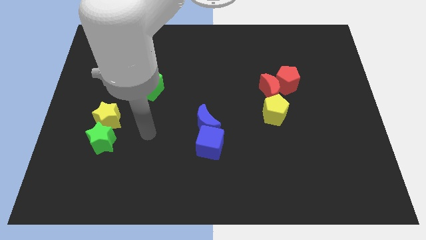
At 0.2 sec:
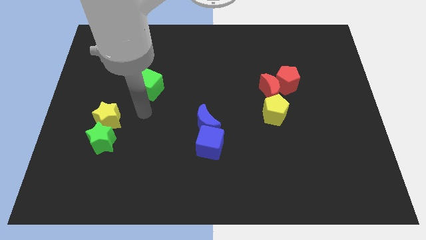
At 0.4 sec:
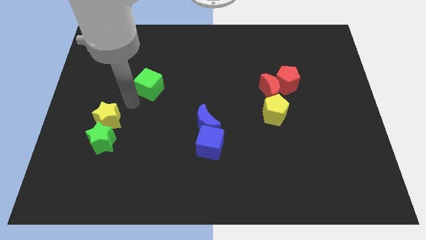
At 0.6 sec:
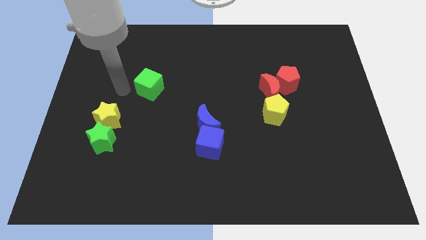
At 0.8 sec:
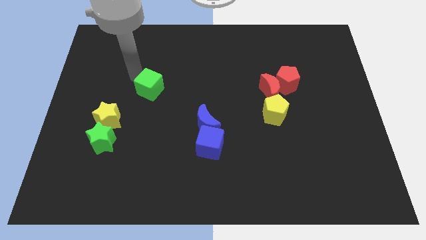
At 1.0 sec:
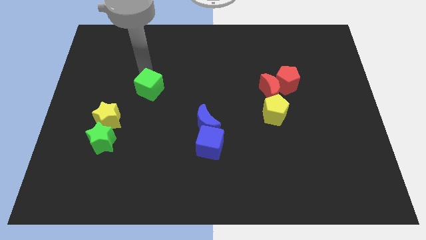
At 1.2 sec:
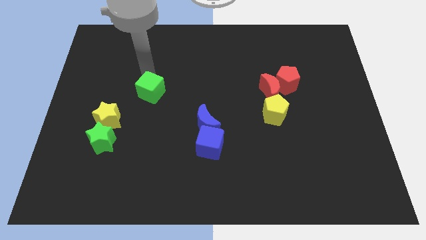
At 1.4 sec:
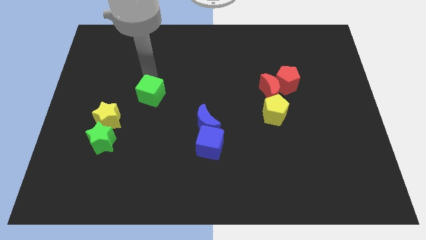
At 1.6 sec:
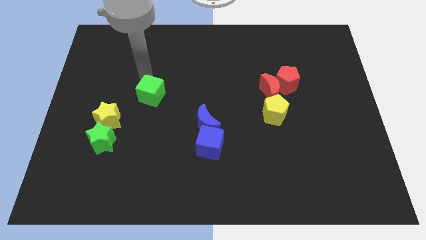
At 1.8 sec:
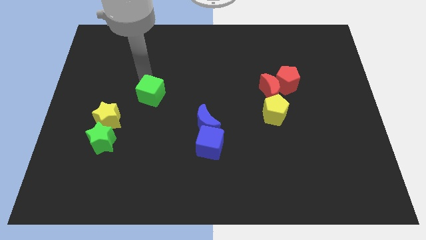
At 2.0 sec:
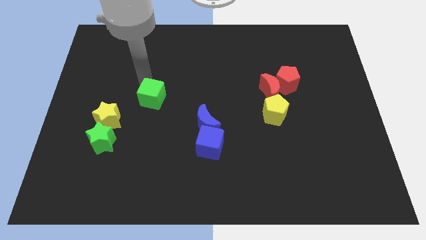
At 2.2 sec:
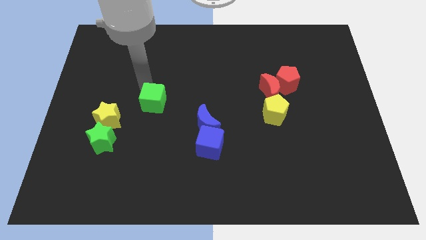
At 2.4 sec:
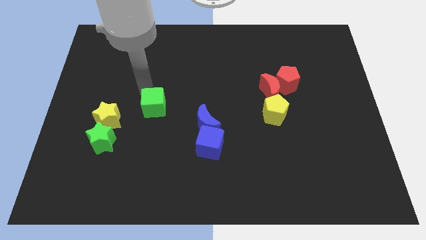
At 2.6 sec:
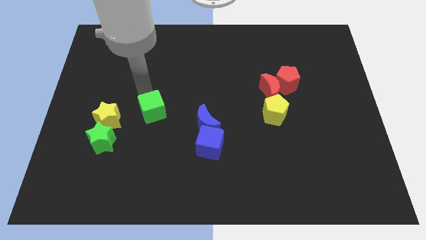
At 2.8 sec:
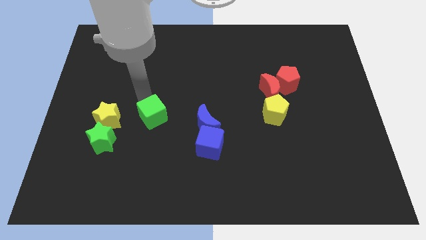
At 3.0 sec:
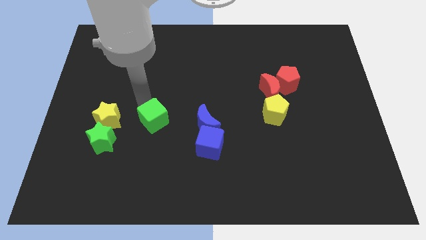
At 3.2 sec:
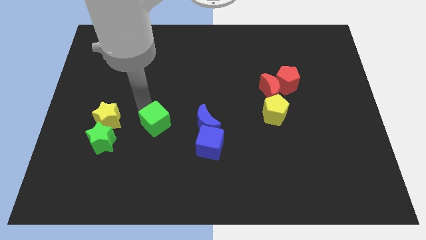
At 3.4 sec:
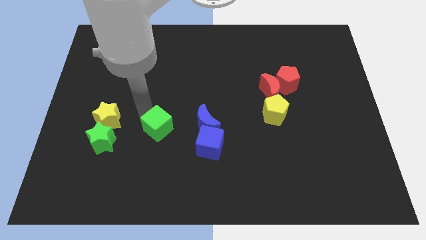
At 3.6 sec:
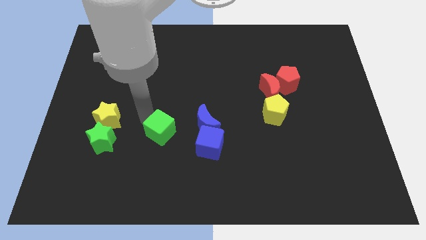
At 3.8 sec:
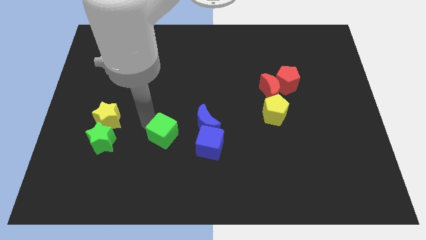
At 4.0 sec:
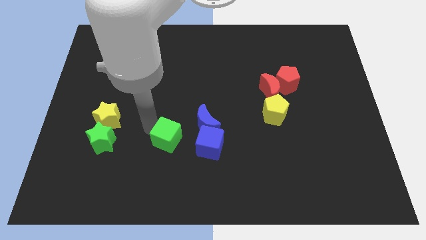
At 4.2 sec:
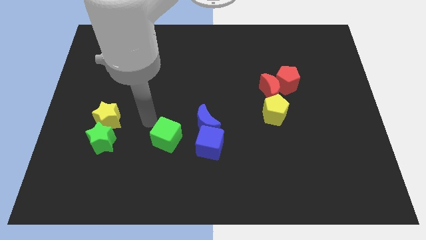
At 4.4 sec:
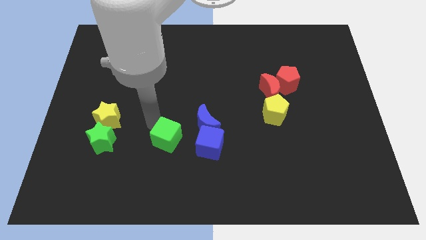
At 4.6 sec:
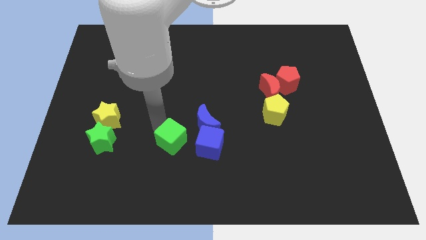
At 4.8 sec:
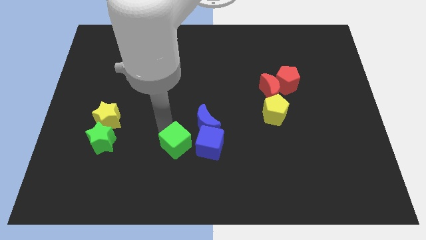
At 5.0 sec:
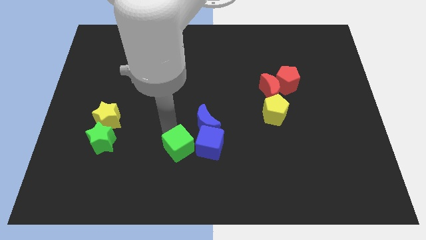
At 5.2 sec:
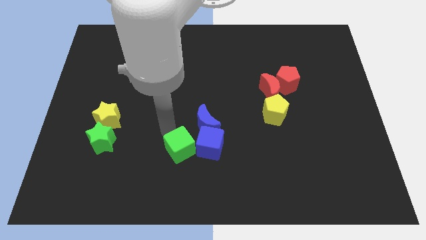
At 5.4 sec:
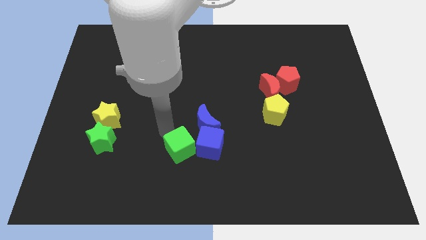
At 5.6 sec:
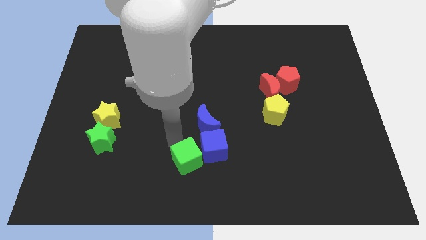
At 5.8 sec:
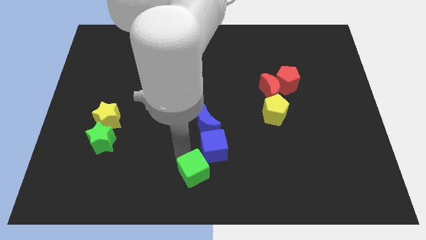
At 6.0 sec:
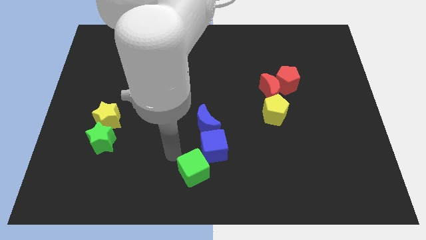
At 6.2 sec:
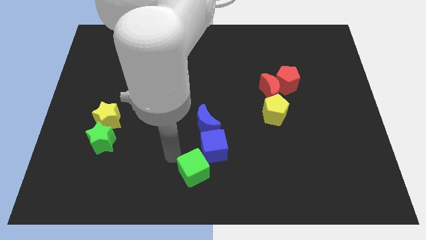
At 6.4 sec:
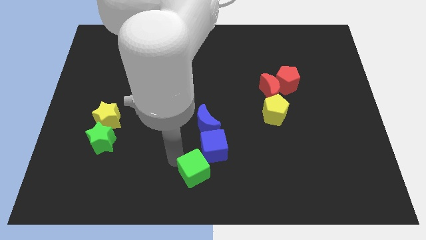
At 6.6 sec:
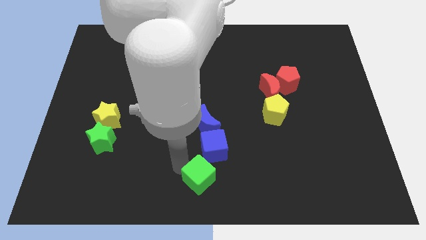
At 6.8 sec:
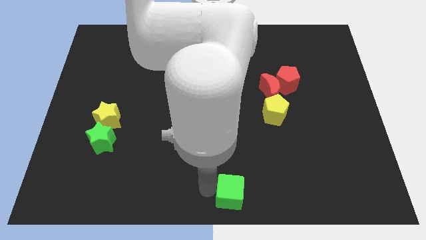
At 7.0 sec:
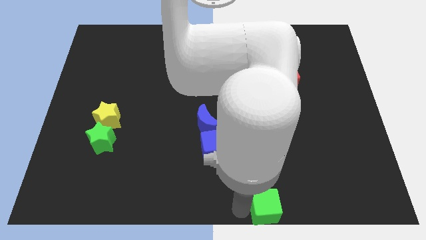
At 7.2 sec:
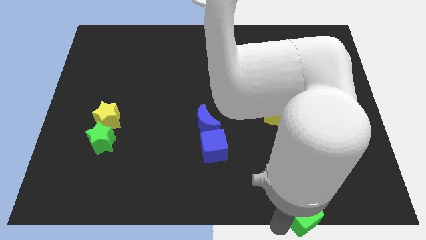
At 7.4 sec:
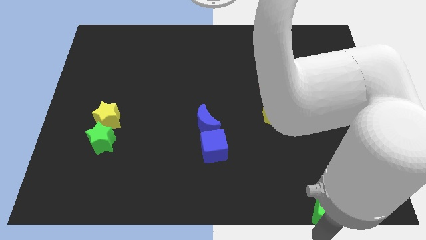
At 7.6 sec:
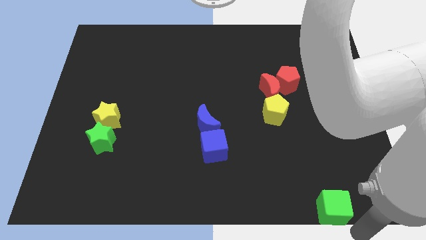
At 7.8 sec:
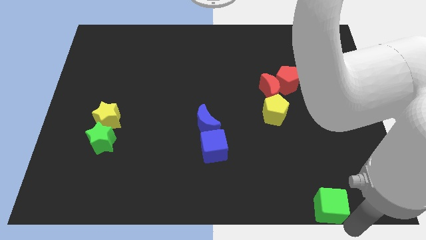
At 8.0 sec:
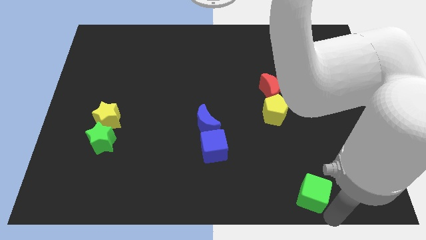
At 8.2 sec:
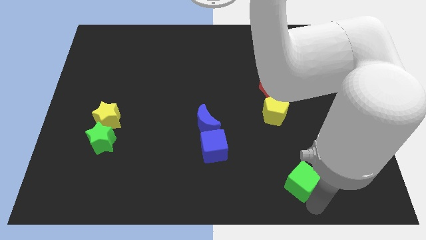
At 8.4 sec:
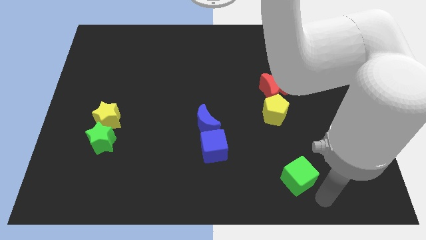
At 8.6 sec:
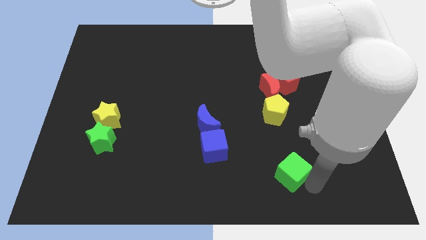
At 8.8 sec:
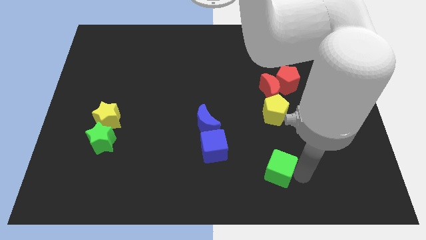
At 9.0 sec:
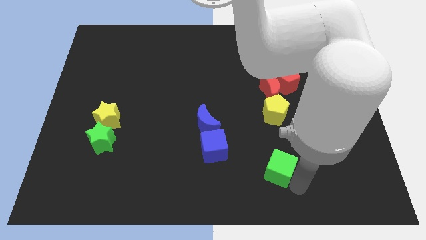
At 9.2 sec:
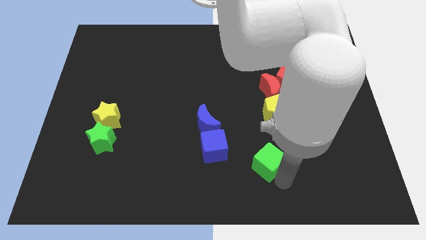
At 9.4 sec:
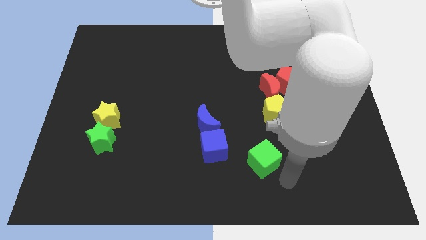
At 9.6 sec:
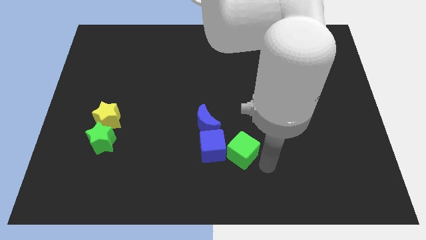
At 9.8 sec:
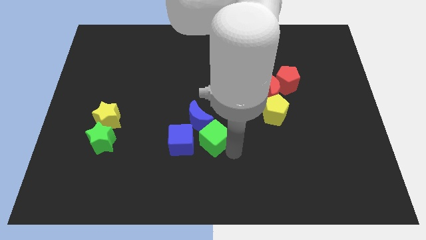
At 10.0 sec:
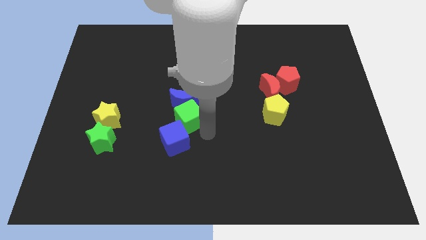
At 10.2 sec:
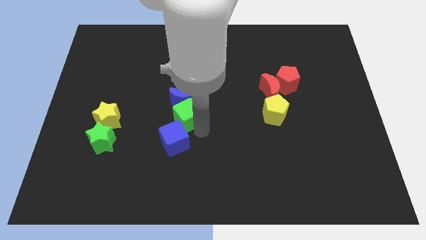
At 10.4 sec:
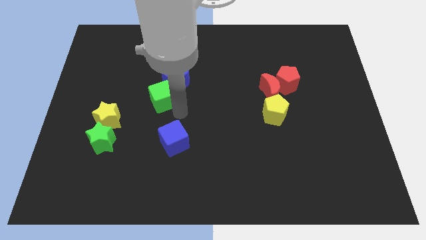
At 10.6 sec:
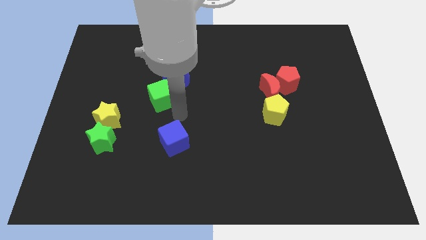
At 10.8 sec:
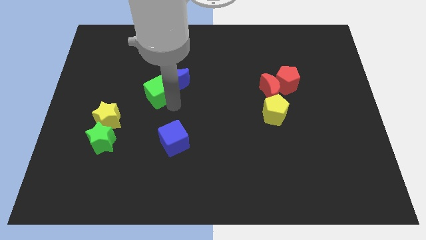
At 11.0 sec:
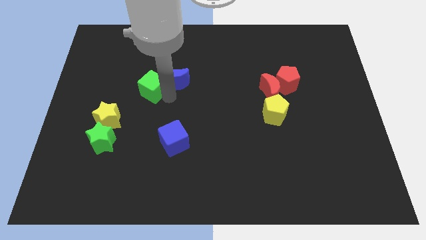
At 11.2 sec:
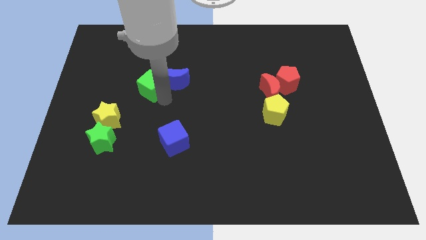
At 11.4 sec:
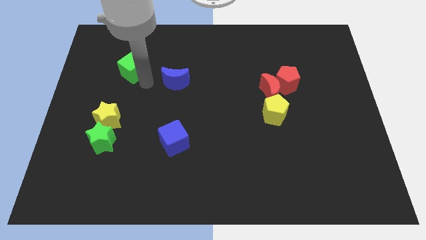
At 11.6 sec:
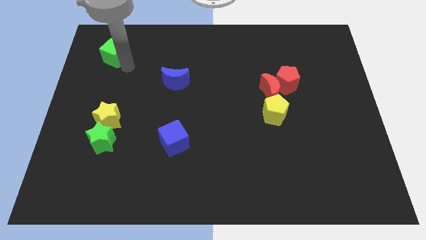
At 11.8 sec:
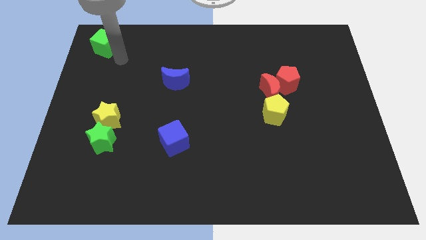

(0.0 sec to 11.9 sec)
put the green cube to the top left of the board
